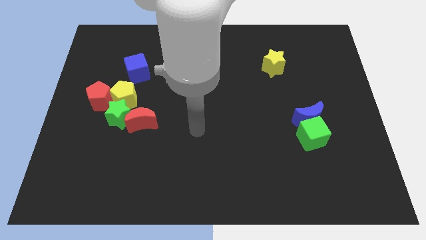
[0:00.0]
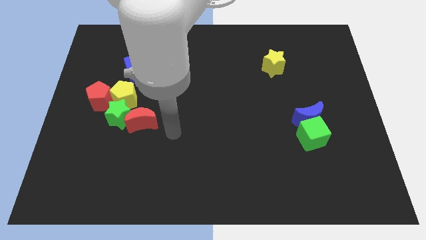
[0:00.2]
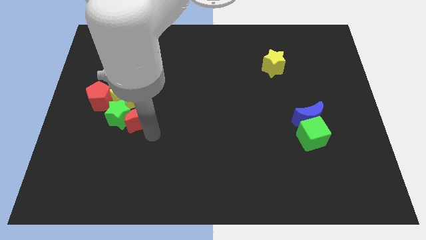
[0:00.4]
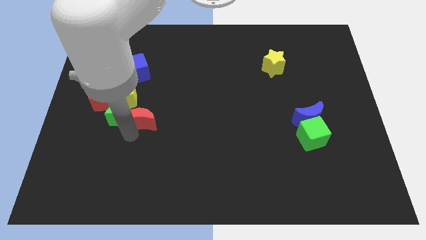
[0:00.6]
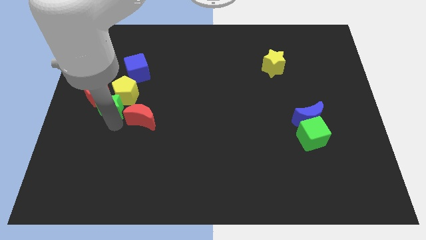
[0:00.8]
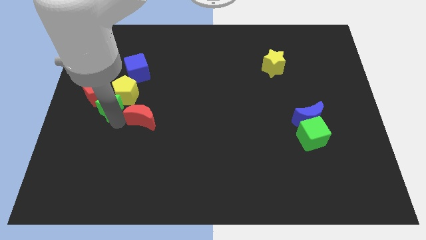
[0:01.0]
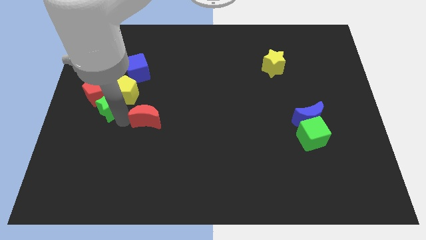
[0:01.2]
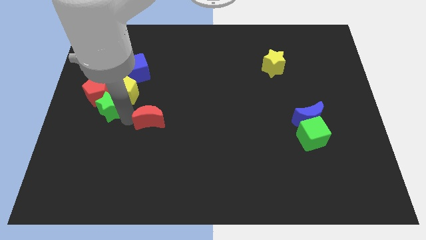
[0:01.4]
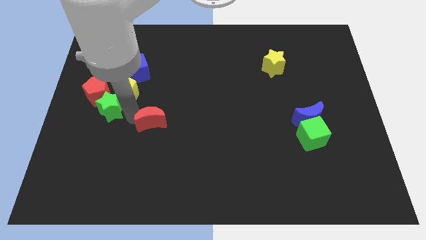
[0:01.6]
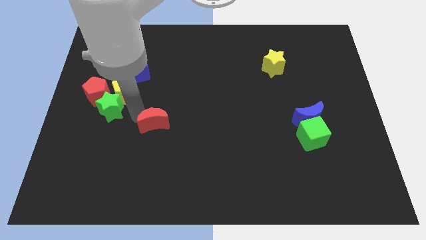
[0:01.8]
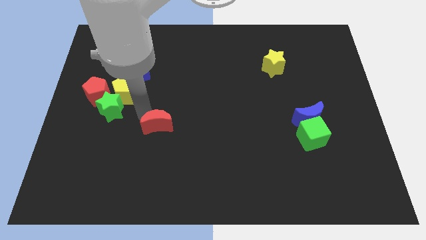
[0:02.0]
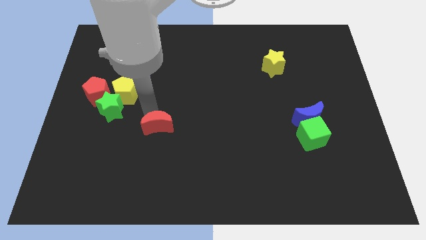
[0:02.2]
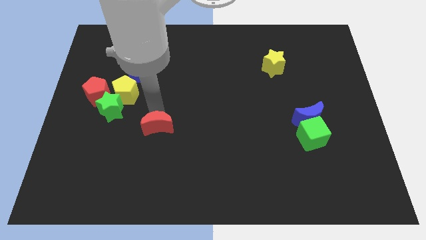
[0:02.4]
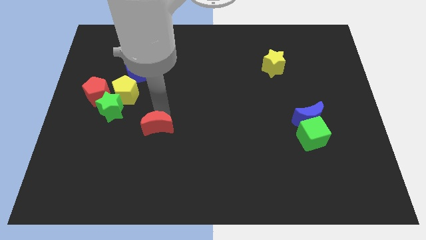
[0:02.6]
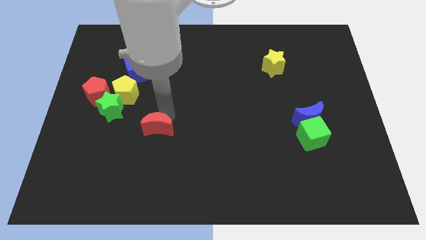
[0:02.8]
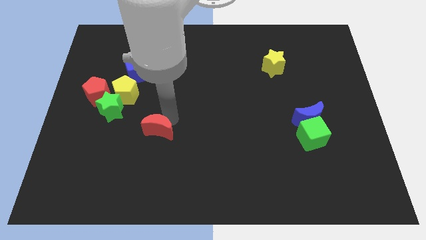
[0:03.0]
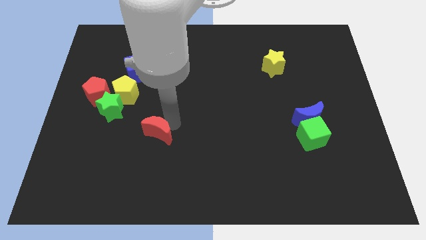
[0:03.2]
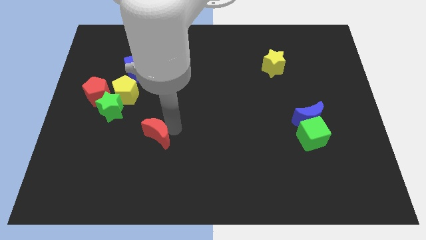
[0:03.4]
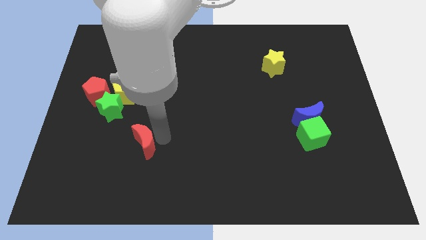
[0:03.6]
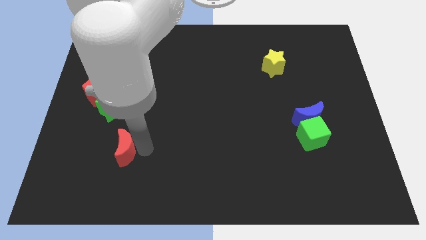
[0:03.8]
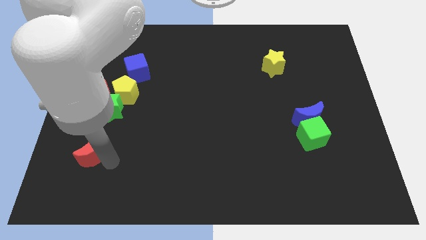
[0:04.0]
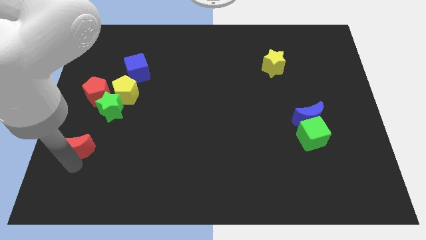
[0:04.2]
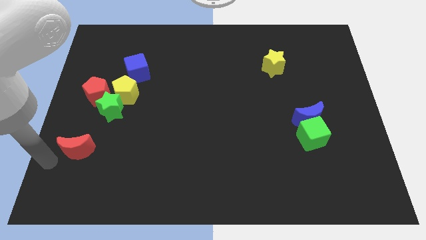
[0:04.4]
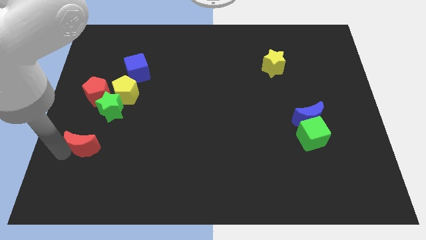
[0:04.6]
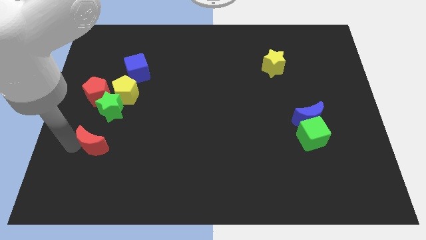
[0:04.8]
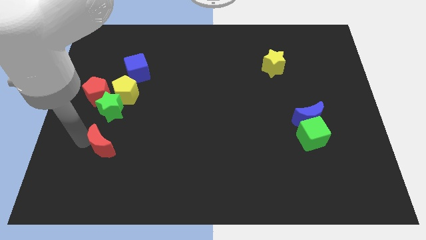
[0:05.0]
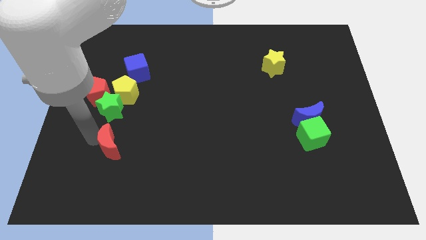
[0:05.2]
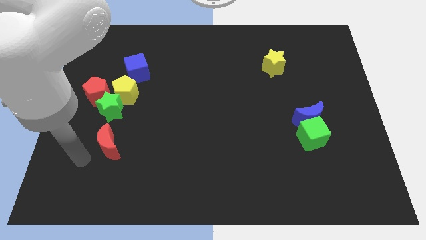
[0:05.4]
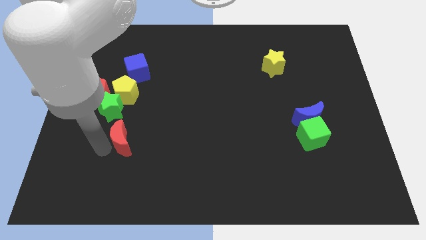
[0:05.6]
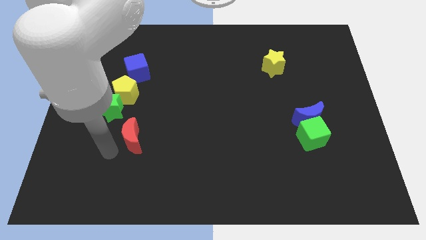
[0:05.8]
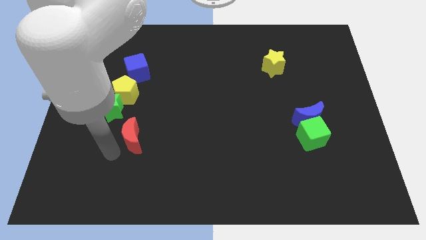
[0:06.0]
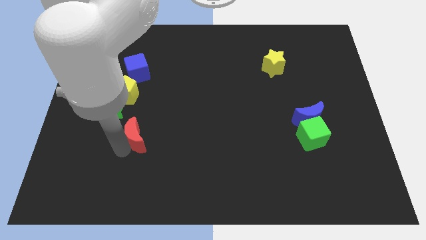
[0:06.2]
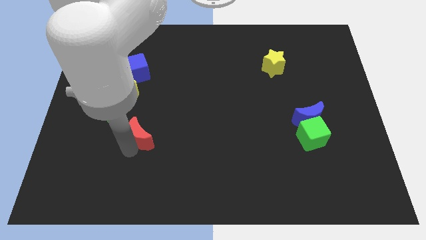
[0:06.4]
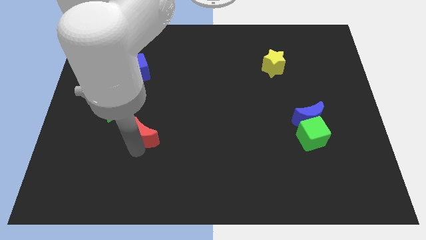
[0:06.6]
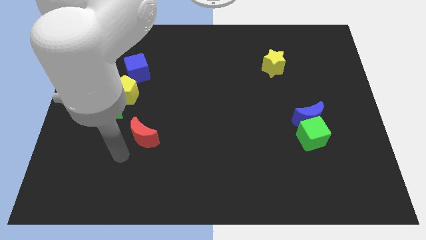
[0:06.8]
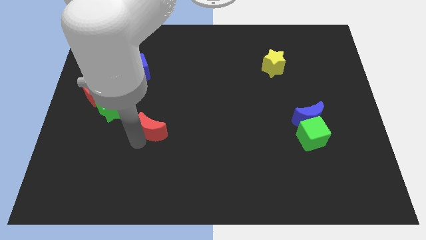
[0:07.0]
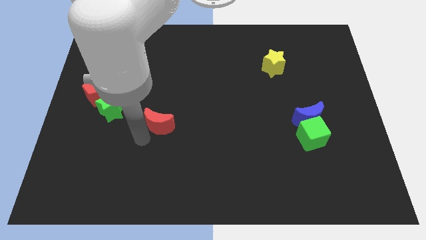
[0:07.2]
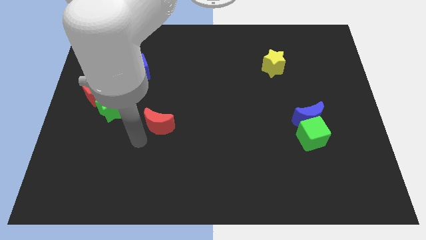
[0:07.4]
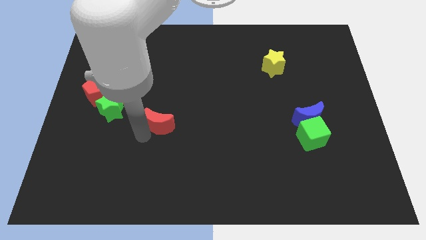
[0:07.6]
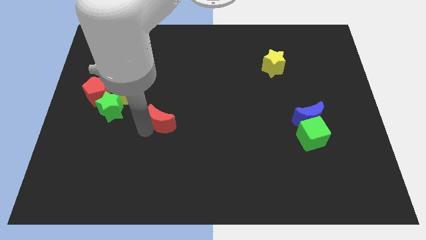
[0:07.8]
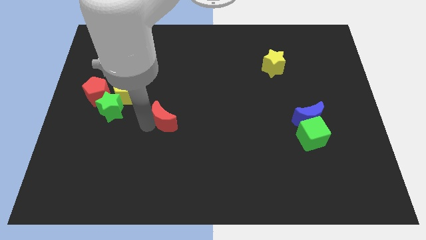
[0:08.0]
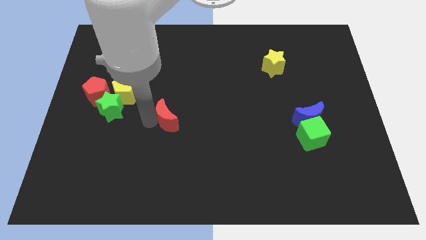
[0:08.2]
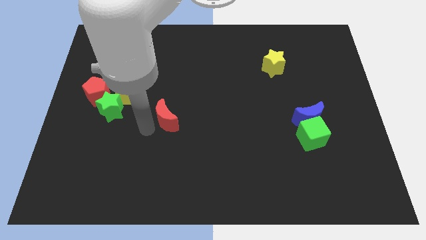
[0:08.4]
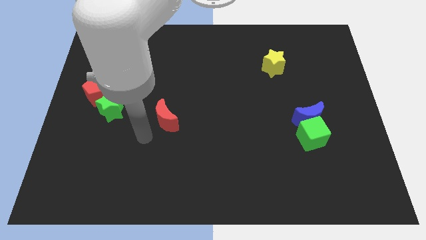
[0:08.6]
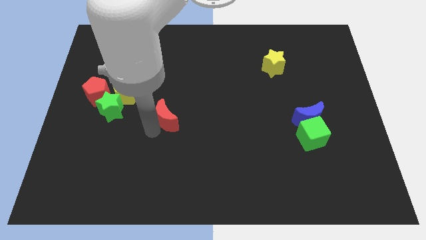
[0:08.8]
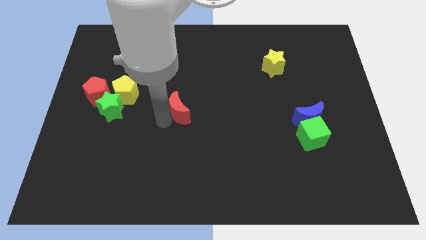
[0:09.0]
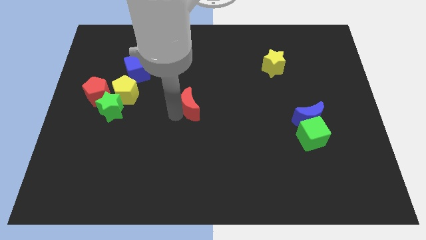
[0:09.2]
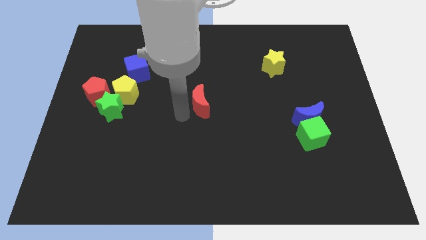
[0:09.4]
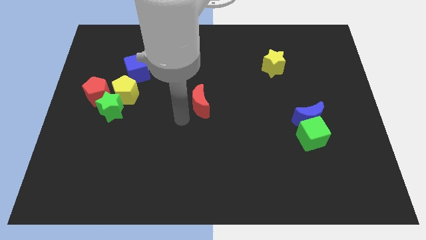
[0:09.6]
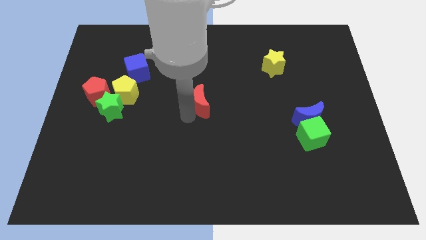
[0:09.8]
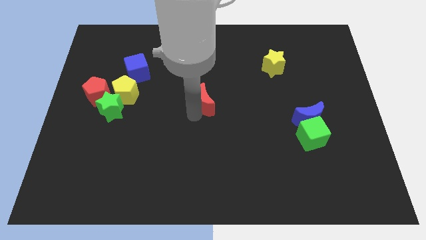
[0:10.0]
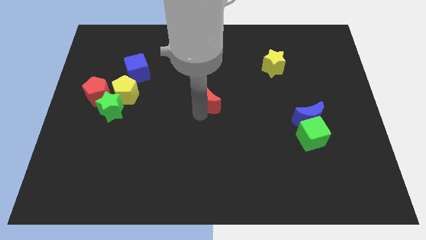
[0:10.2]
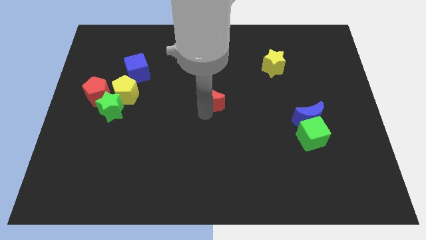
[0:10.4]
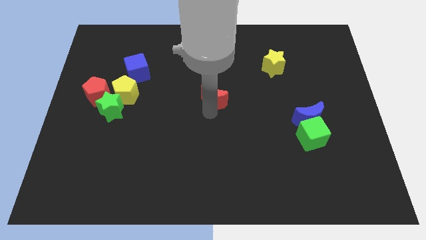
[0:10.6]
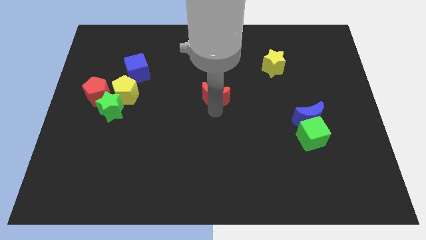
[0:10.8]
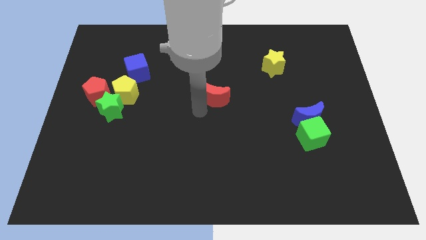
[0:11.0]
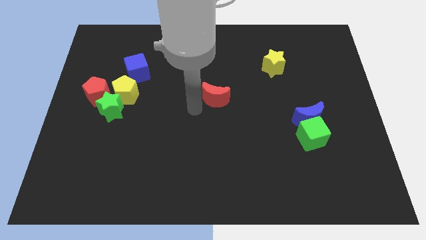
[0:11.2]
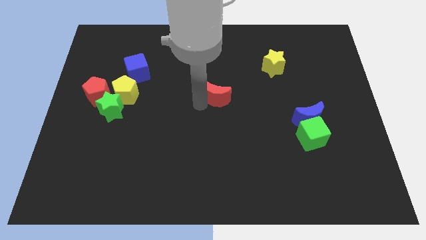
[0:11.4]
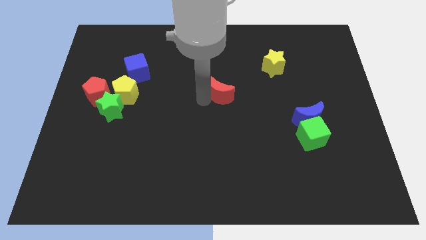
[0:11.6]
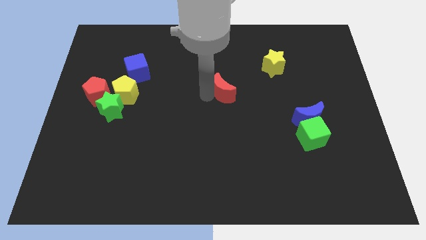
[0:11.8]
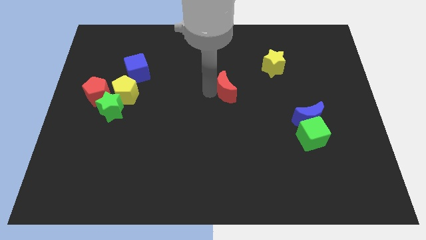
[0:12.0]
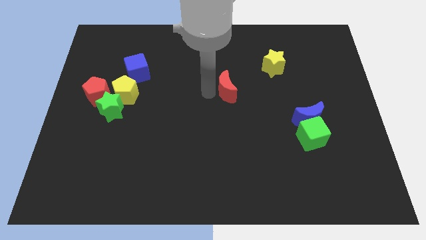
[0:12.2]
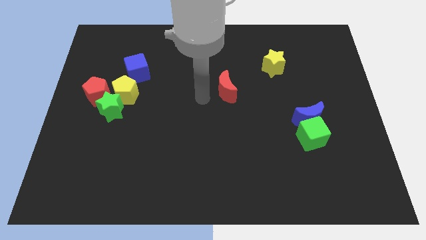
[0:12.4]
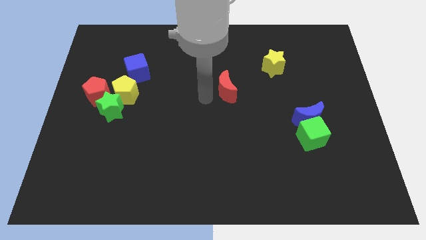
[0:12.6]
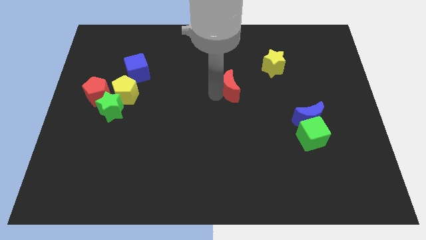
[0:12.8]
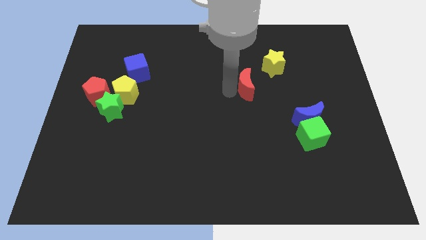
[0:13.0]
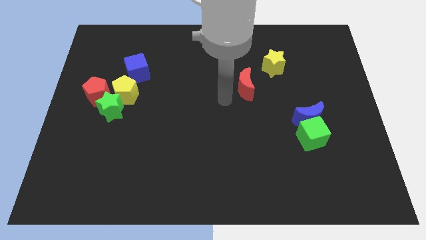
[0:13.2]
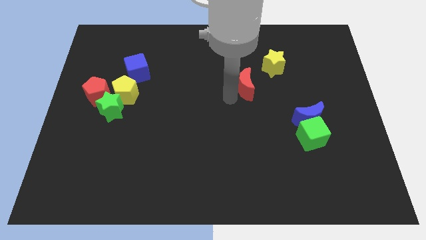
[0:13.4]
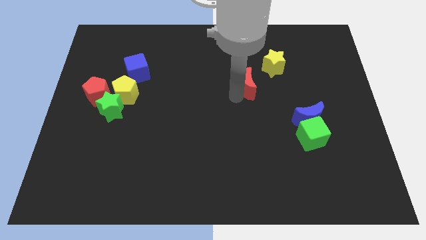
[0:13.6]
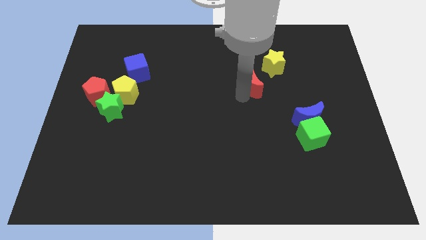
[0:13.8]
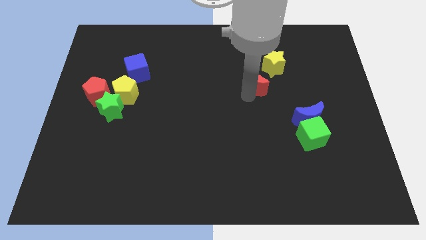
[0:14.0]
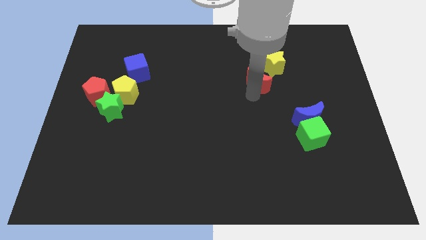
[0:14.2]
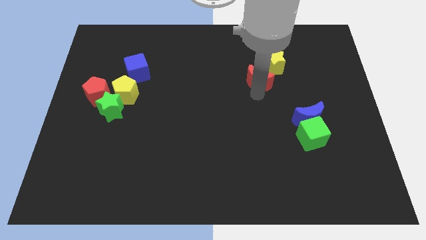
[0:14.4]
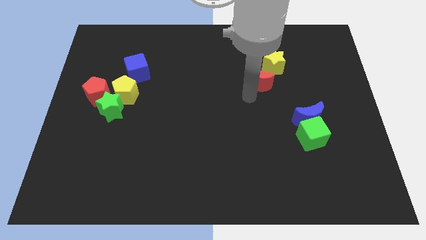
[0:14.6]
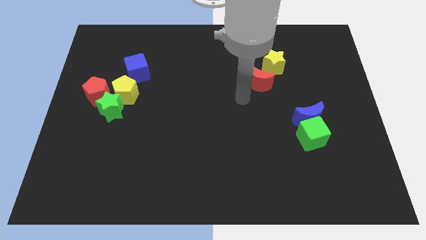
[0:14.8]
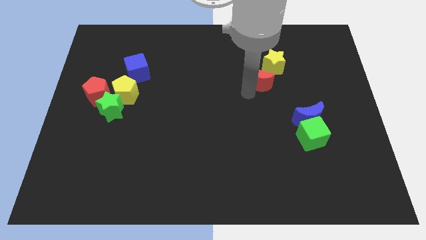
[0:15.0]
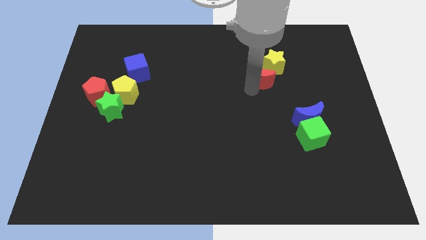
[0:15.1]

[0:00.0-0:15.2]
put the red moon towards the yellow star

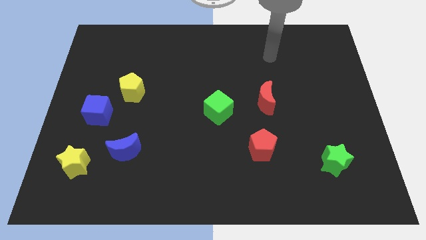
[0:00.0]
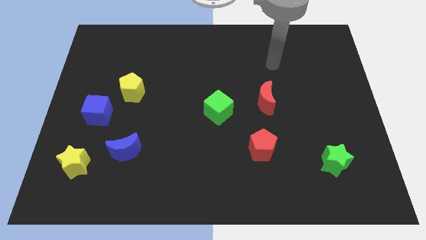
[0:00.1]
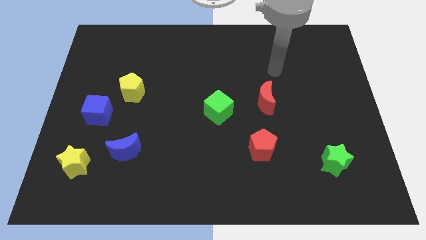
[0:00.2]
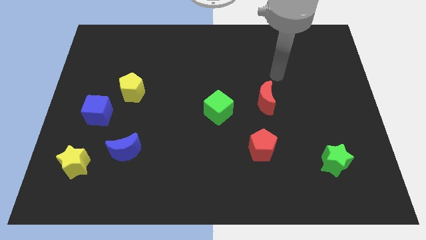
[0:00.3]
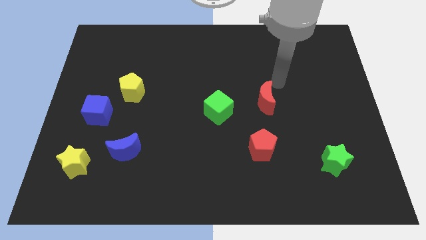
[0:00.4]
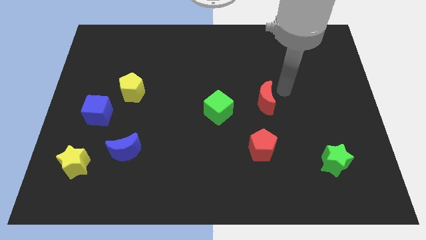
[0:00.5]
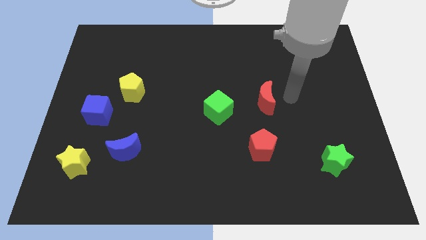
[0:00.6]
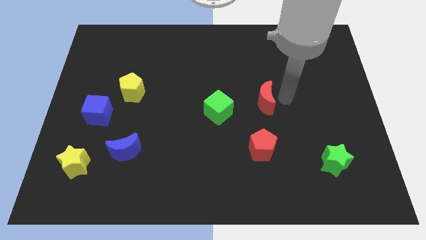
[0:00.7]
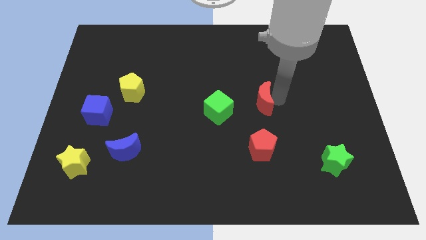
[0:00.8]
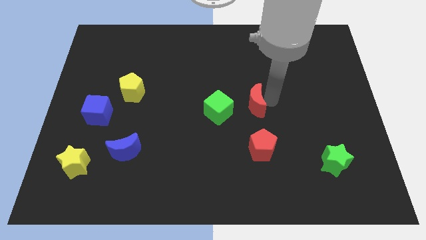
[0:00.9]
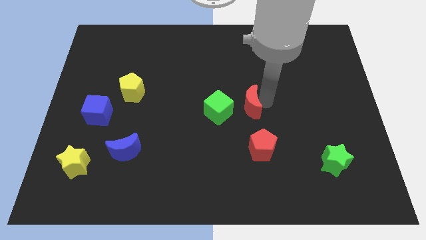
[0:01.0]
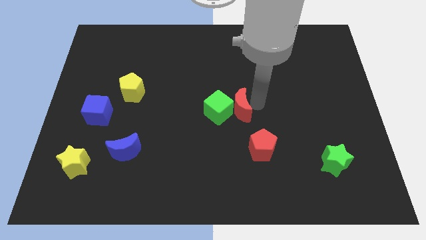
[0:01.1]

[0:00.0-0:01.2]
put the red moon next to the green cube
